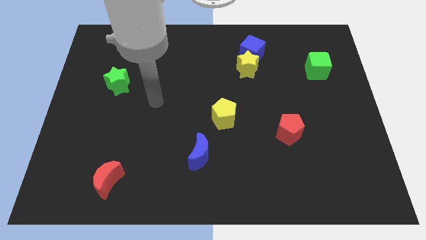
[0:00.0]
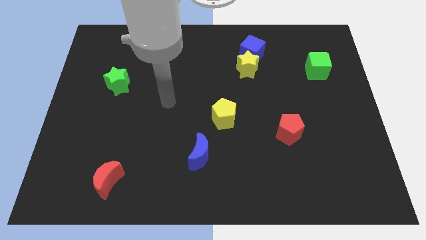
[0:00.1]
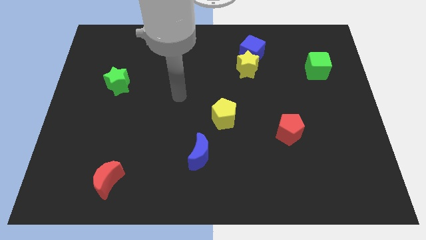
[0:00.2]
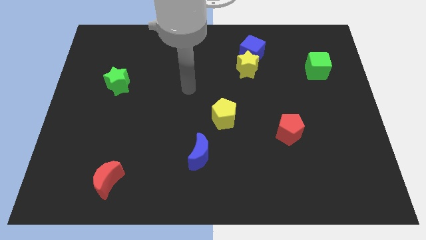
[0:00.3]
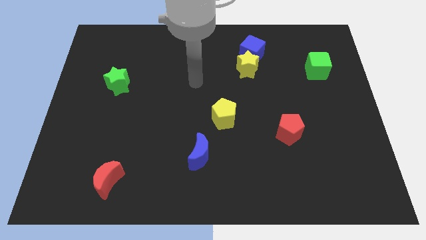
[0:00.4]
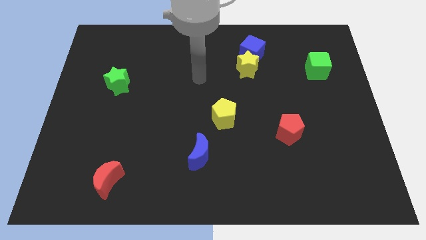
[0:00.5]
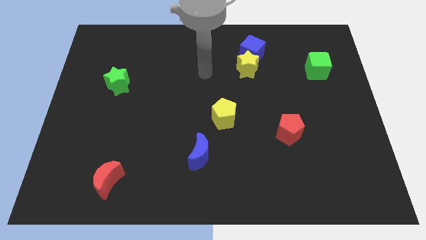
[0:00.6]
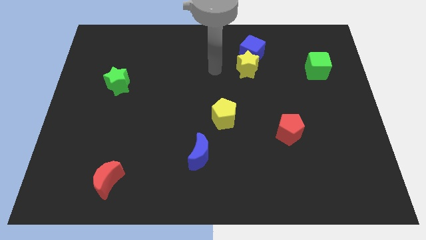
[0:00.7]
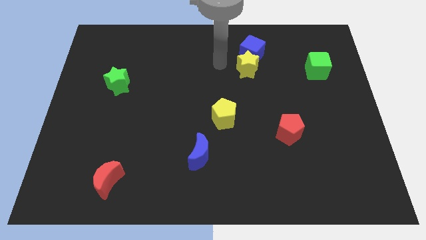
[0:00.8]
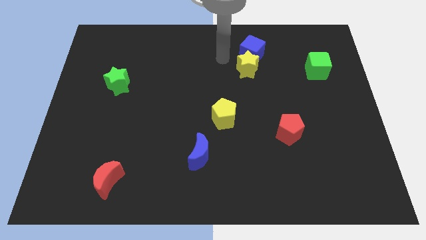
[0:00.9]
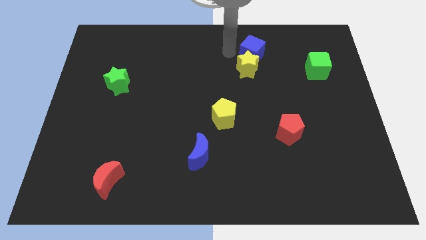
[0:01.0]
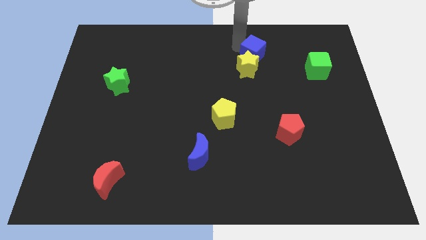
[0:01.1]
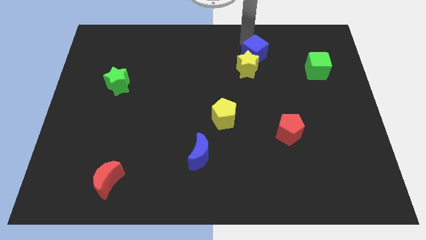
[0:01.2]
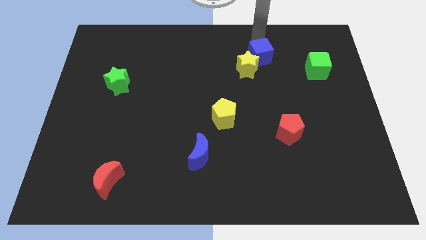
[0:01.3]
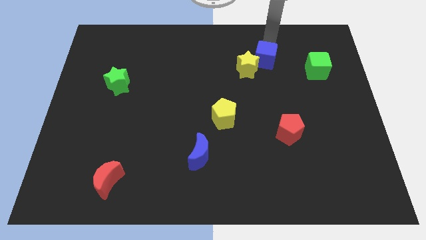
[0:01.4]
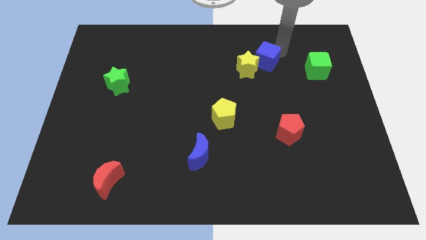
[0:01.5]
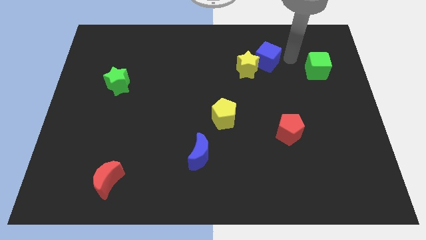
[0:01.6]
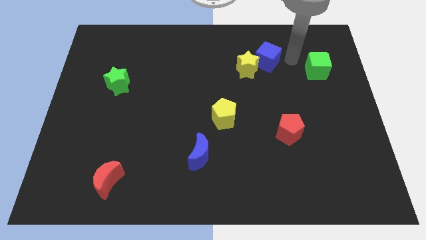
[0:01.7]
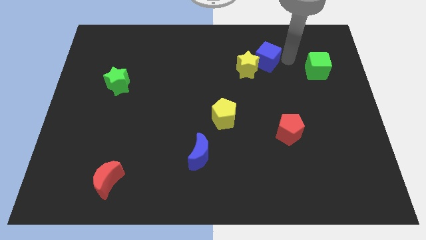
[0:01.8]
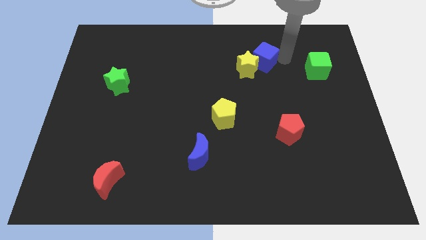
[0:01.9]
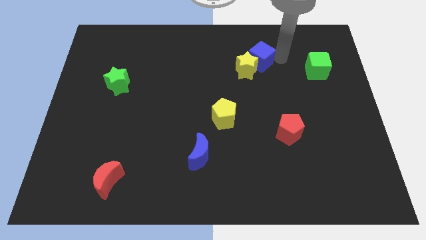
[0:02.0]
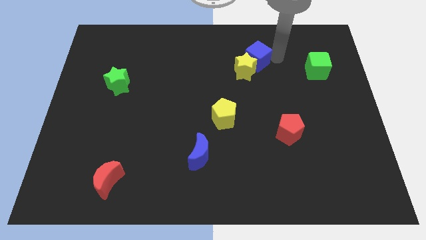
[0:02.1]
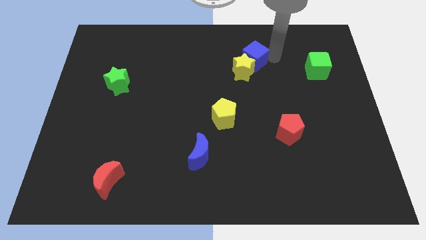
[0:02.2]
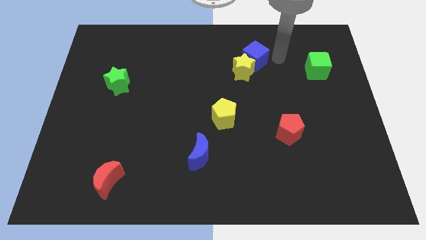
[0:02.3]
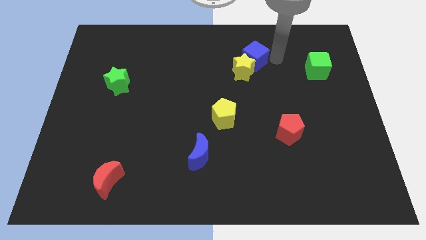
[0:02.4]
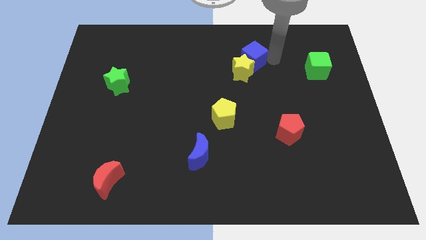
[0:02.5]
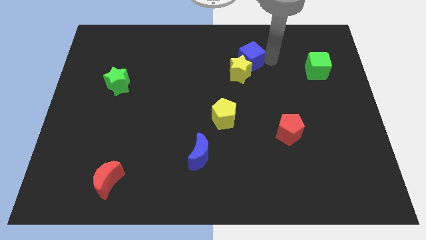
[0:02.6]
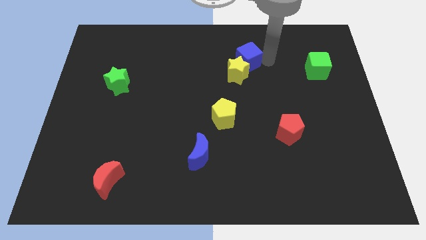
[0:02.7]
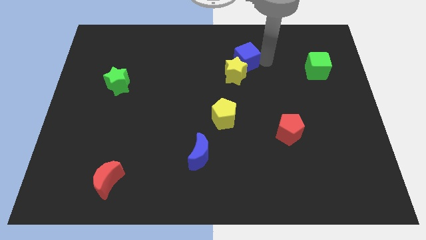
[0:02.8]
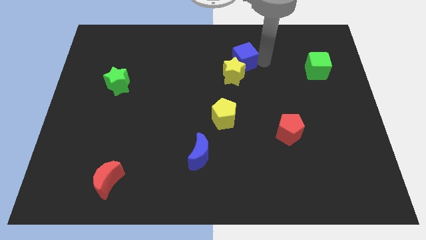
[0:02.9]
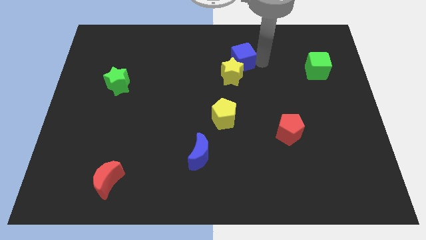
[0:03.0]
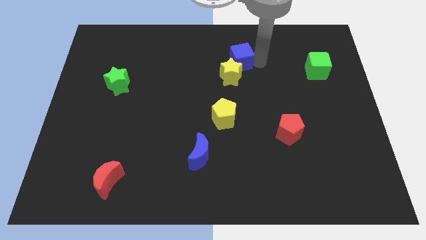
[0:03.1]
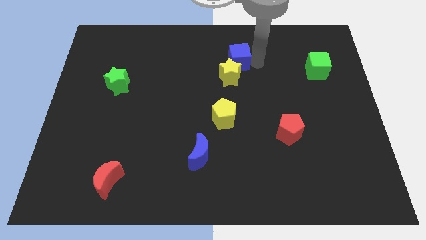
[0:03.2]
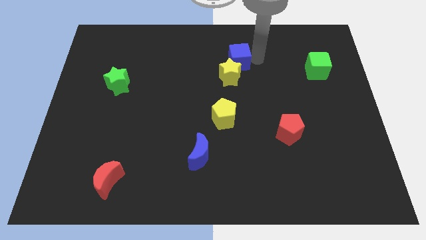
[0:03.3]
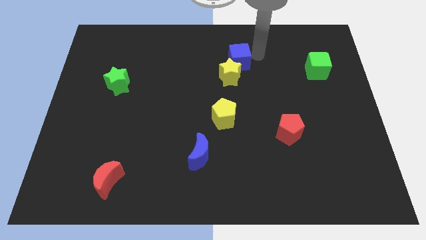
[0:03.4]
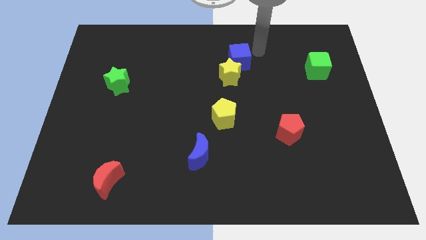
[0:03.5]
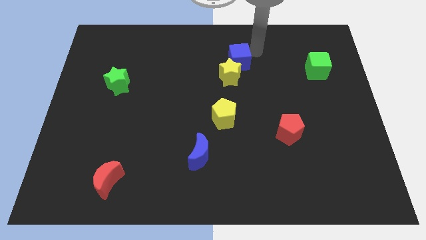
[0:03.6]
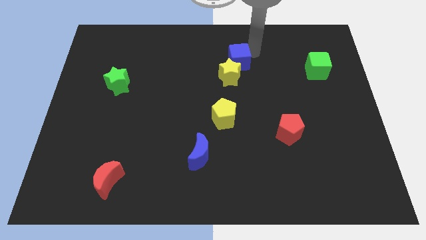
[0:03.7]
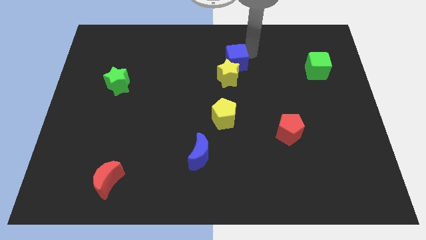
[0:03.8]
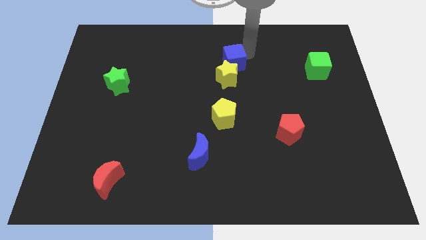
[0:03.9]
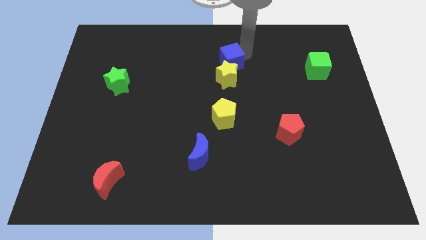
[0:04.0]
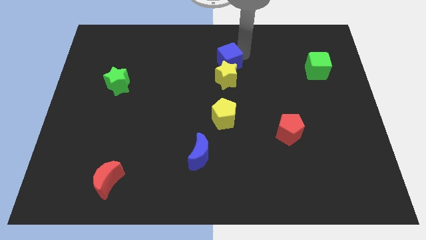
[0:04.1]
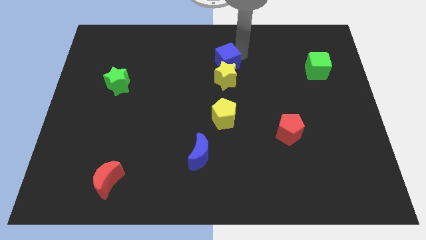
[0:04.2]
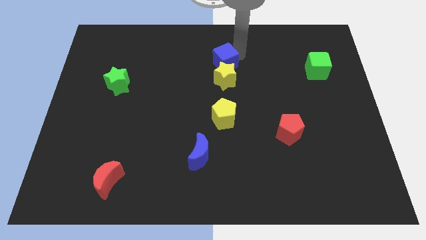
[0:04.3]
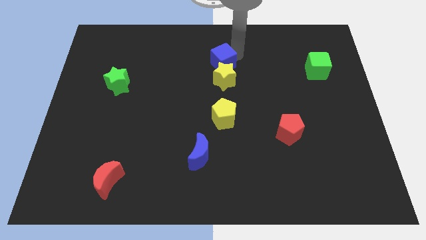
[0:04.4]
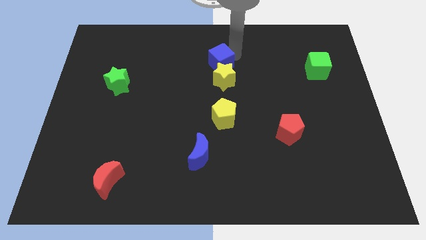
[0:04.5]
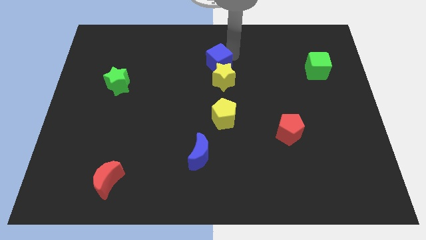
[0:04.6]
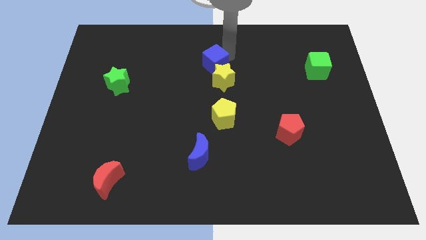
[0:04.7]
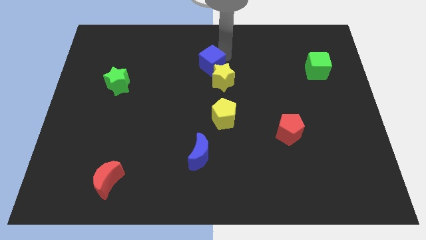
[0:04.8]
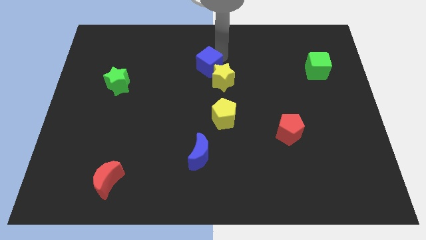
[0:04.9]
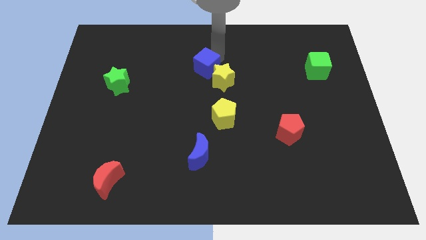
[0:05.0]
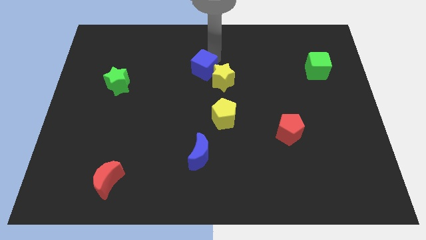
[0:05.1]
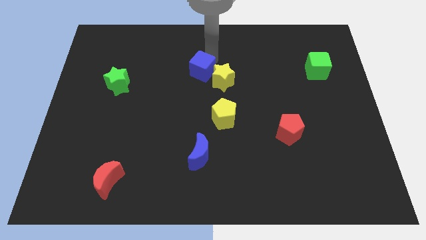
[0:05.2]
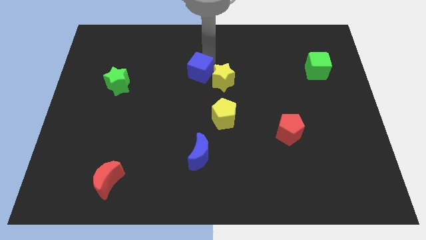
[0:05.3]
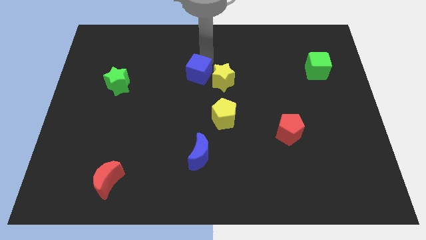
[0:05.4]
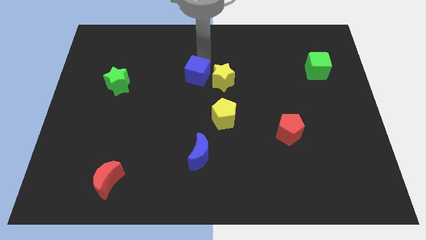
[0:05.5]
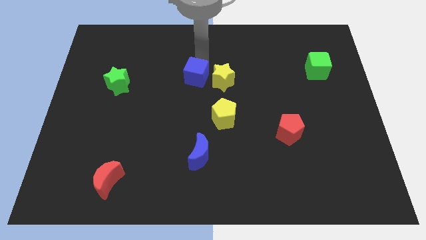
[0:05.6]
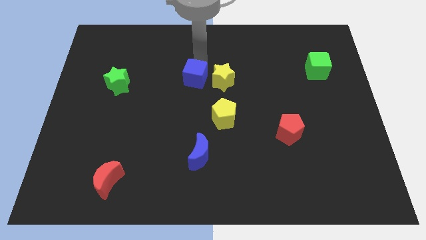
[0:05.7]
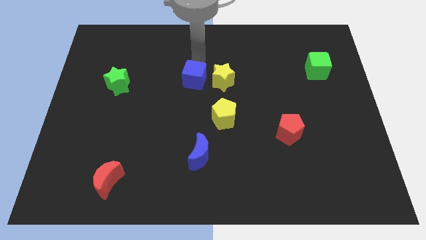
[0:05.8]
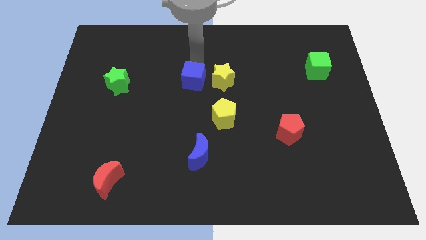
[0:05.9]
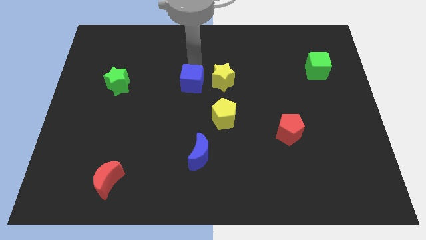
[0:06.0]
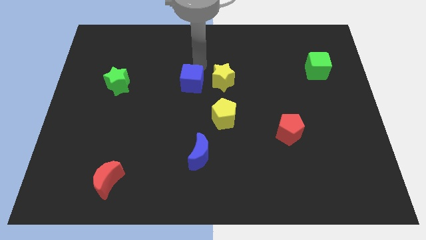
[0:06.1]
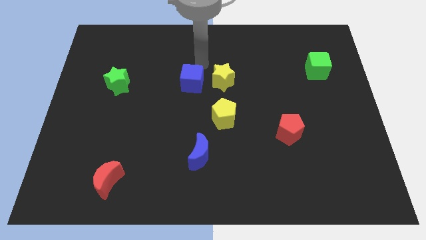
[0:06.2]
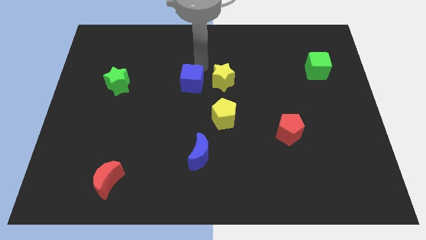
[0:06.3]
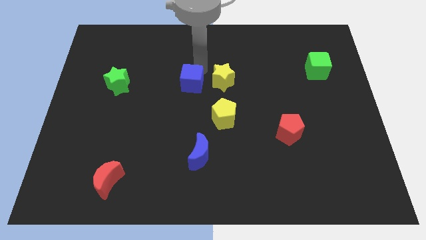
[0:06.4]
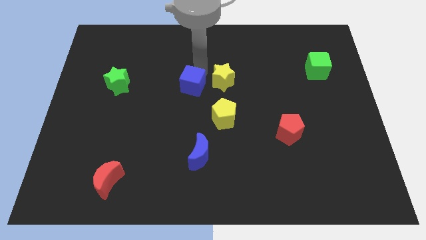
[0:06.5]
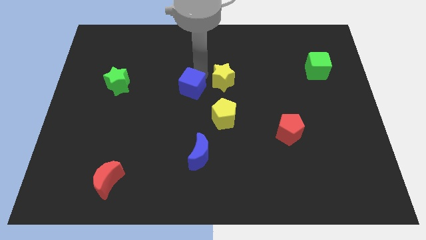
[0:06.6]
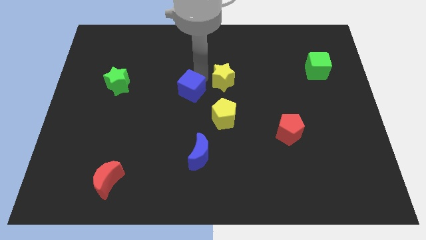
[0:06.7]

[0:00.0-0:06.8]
push the blue cube down and then to the left

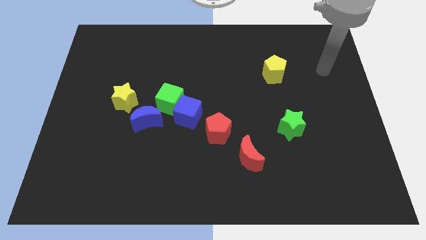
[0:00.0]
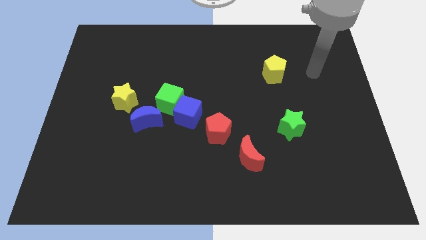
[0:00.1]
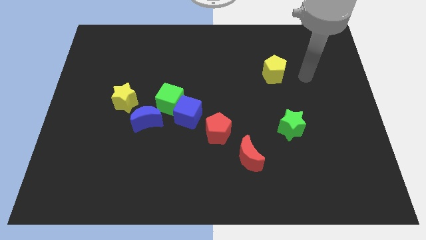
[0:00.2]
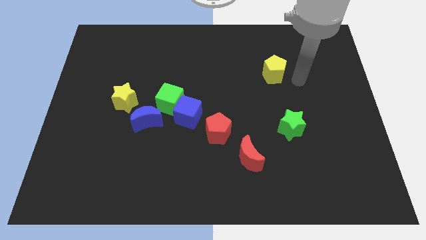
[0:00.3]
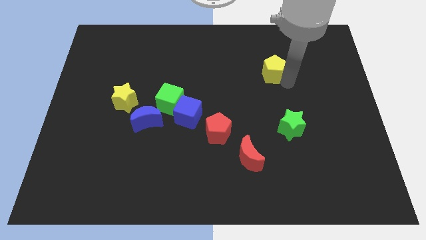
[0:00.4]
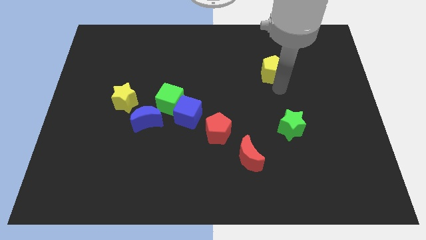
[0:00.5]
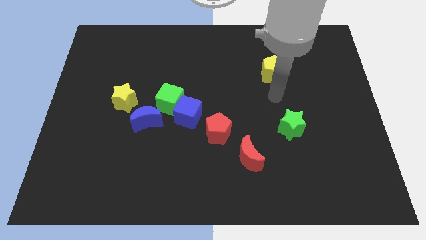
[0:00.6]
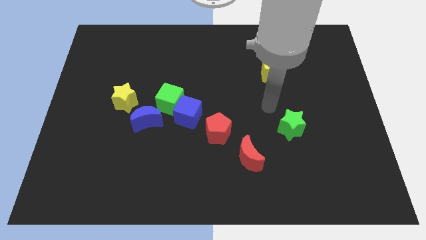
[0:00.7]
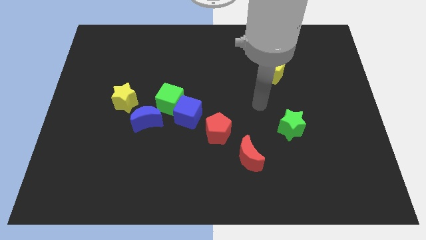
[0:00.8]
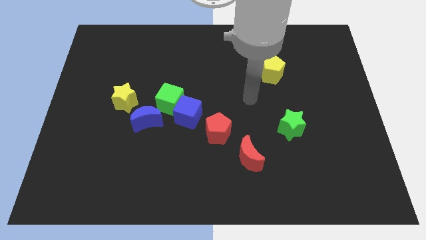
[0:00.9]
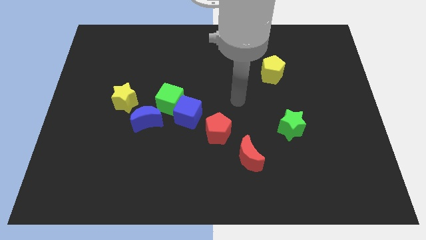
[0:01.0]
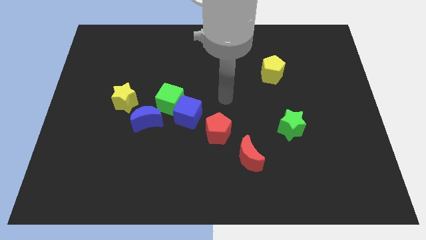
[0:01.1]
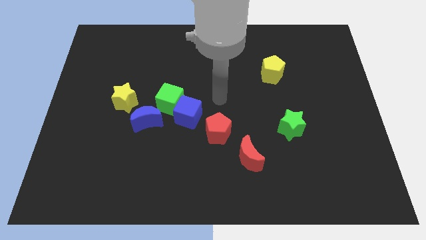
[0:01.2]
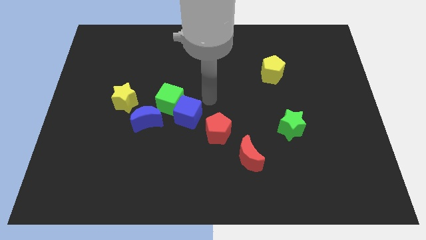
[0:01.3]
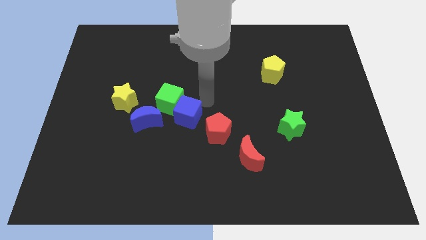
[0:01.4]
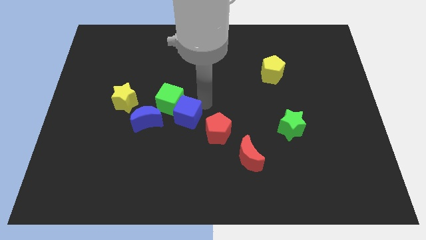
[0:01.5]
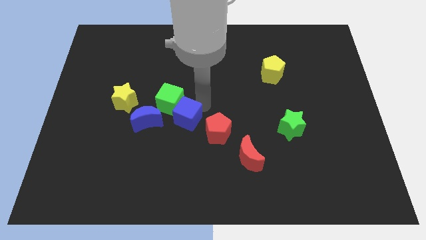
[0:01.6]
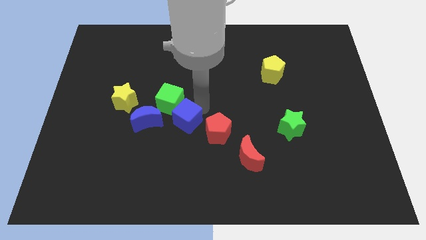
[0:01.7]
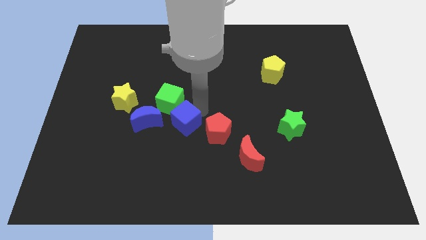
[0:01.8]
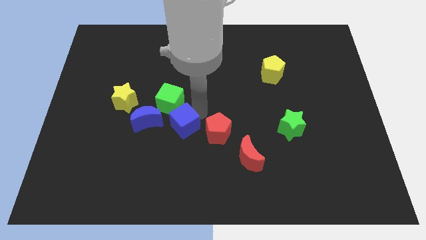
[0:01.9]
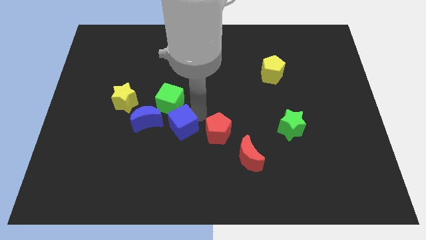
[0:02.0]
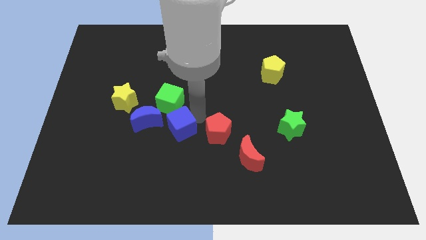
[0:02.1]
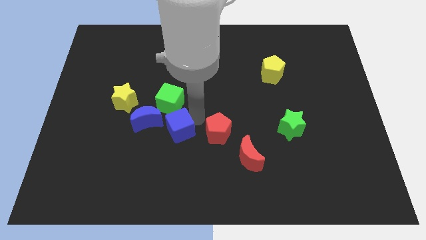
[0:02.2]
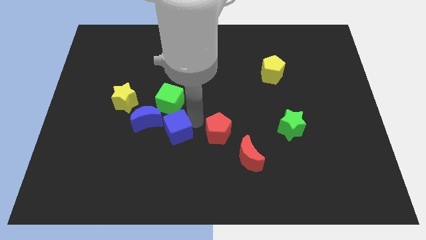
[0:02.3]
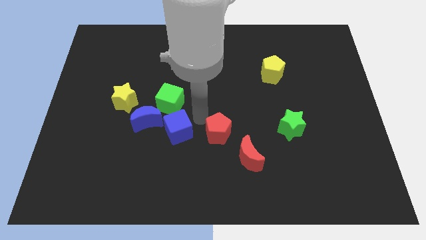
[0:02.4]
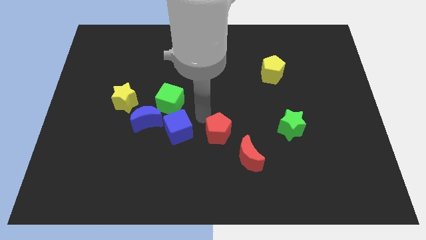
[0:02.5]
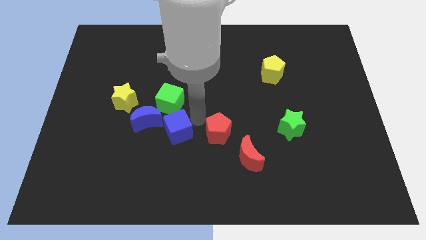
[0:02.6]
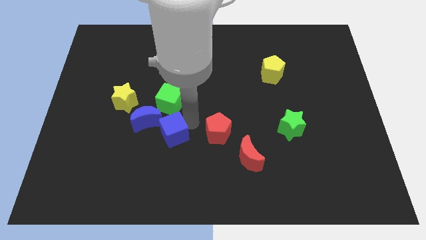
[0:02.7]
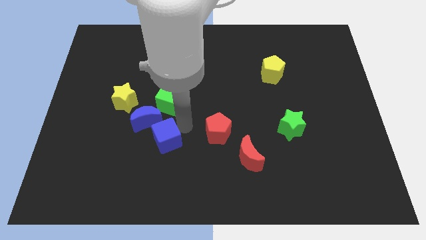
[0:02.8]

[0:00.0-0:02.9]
push the blue cube diagonally downwards and left slightly
